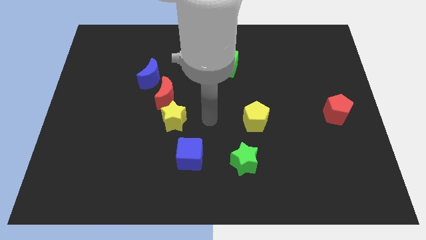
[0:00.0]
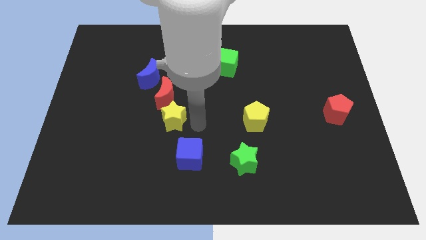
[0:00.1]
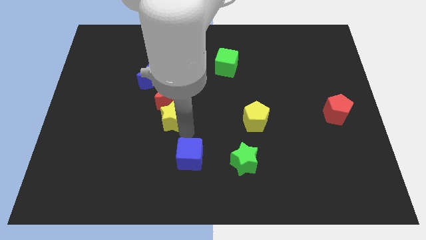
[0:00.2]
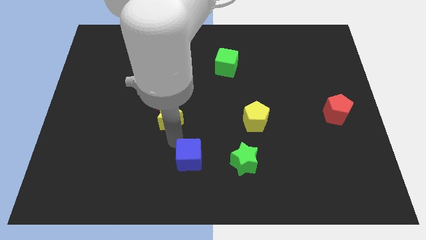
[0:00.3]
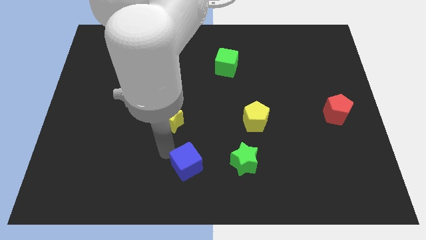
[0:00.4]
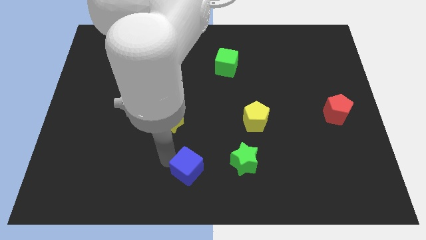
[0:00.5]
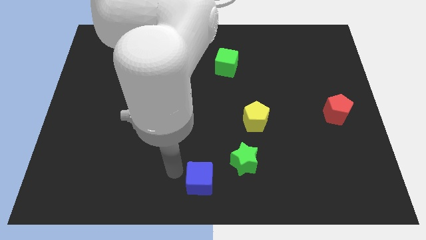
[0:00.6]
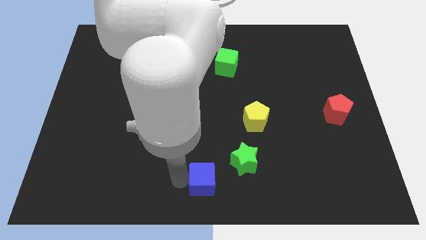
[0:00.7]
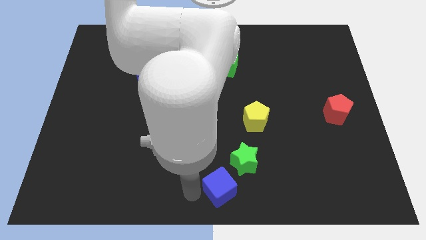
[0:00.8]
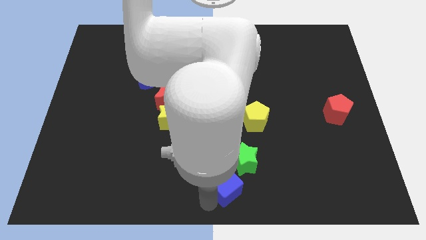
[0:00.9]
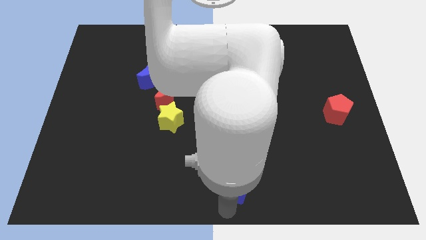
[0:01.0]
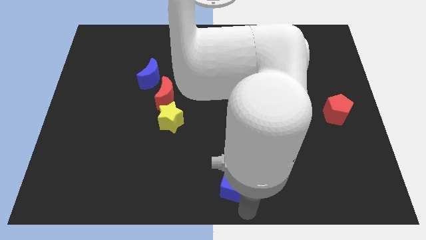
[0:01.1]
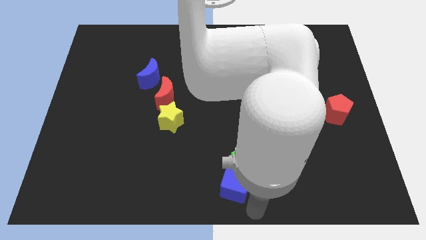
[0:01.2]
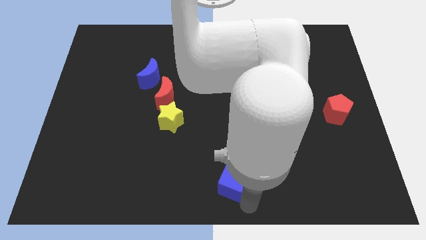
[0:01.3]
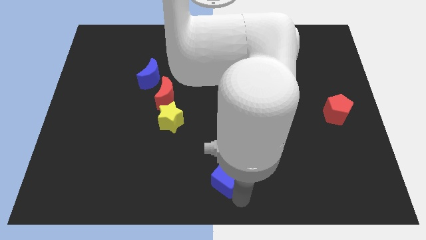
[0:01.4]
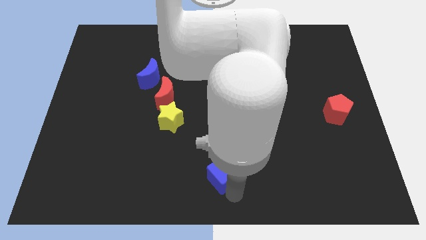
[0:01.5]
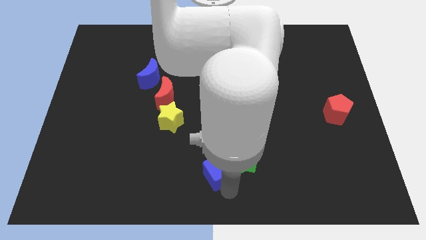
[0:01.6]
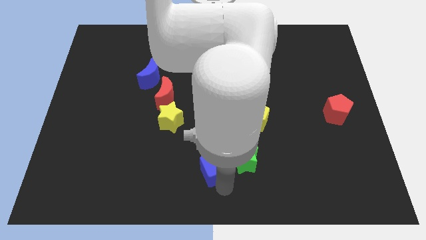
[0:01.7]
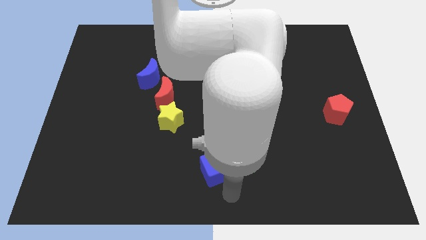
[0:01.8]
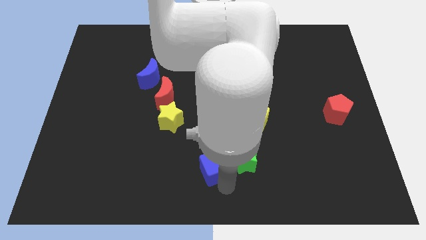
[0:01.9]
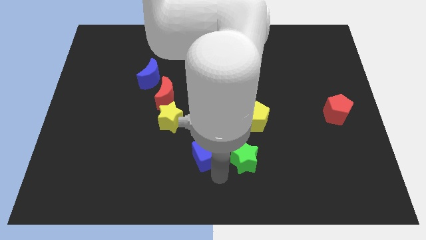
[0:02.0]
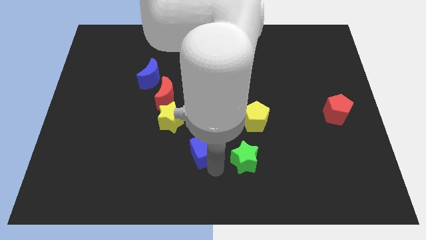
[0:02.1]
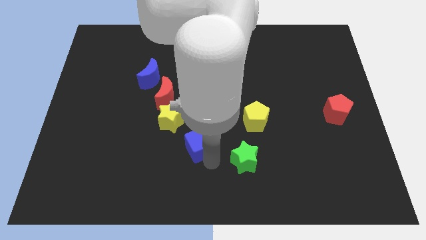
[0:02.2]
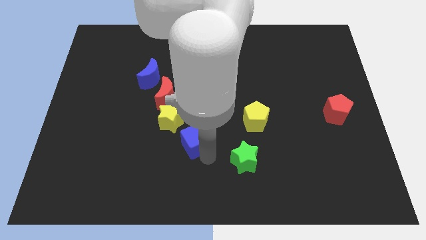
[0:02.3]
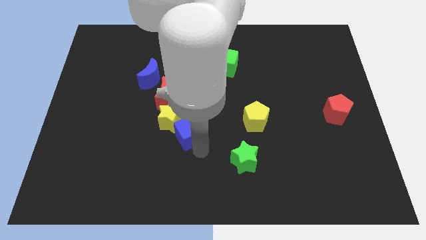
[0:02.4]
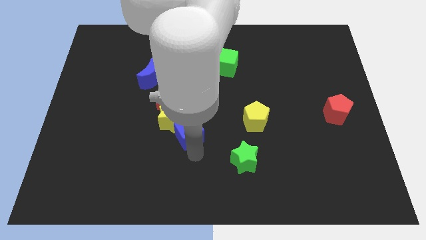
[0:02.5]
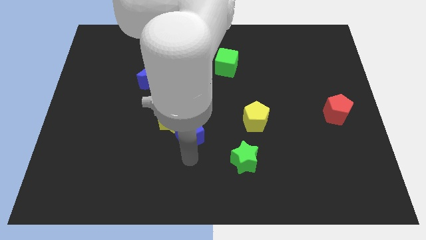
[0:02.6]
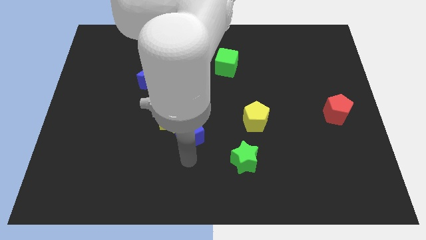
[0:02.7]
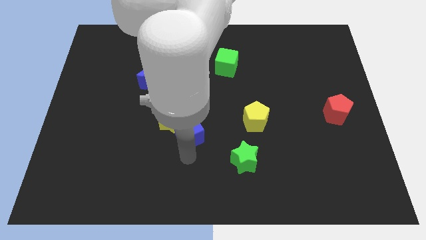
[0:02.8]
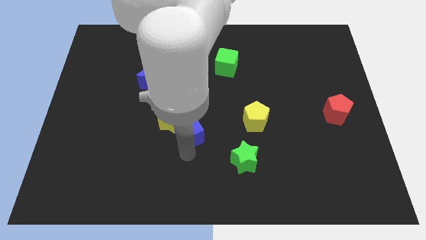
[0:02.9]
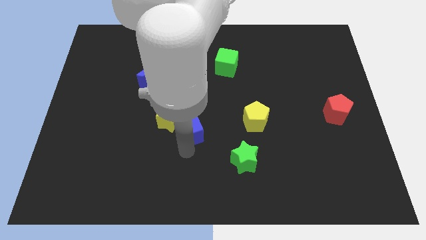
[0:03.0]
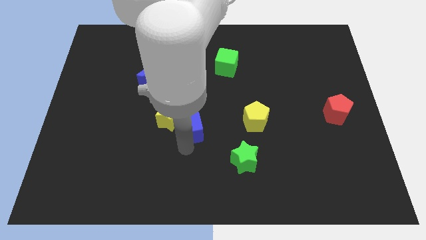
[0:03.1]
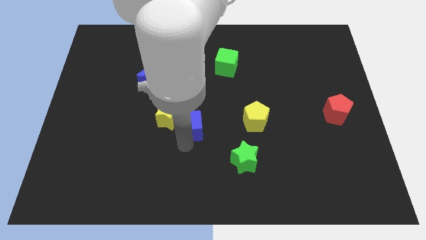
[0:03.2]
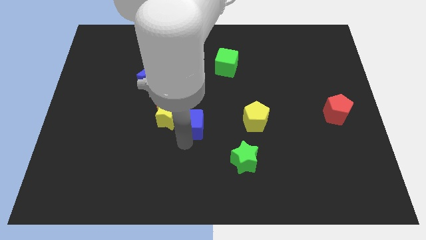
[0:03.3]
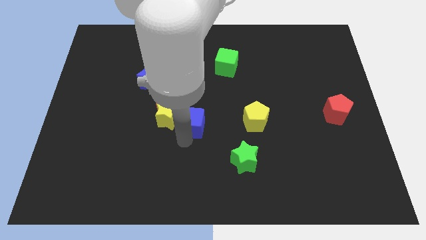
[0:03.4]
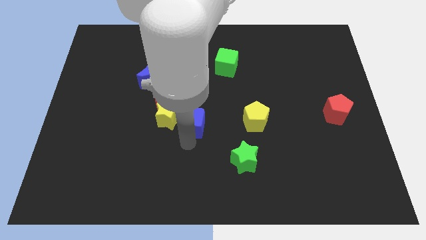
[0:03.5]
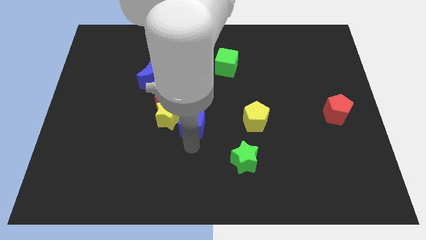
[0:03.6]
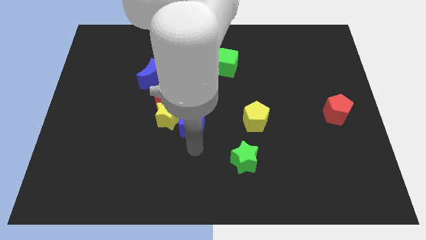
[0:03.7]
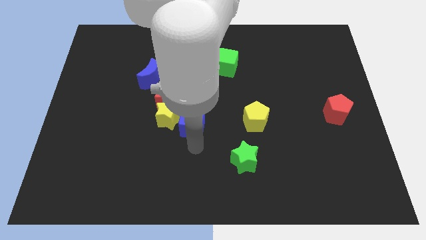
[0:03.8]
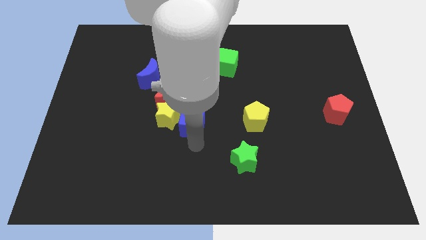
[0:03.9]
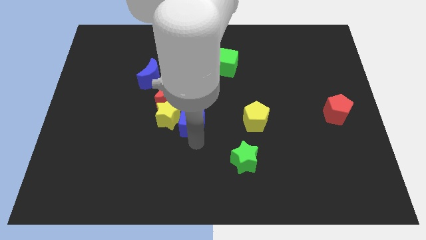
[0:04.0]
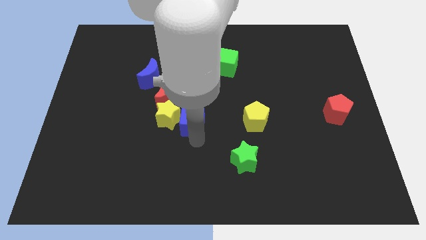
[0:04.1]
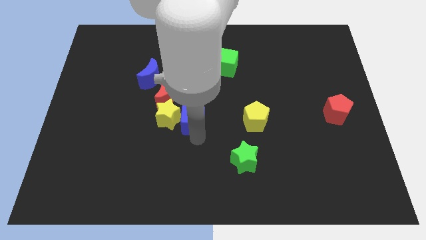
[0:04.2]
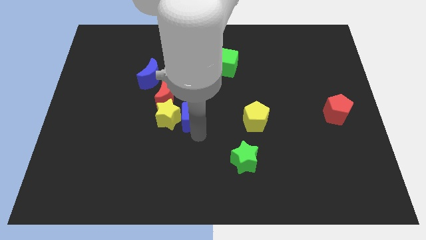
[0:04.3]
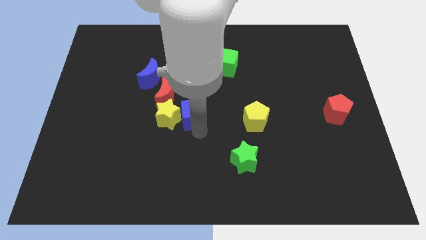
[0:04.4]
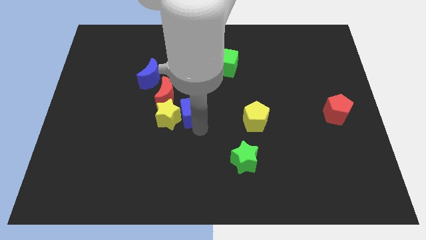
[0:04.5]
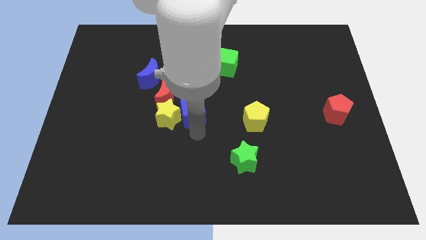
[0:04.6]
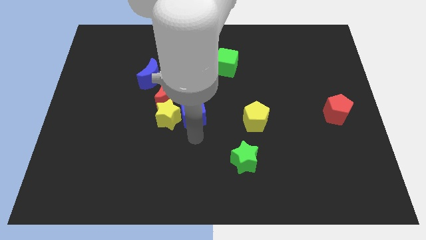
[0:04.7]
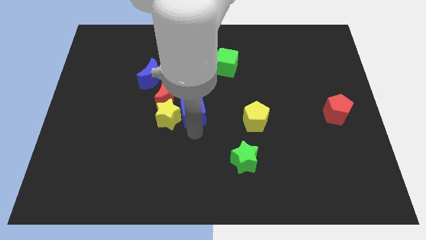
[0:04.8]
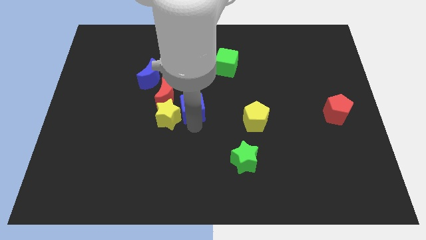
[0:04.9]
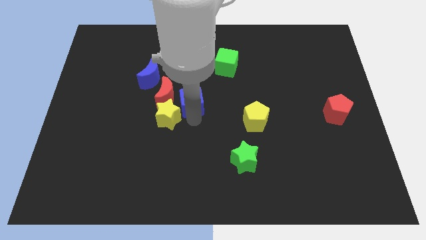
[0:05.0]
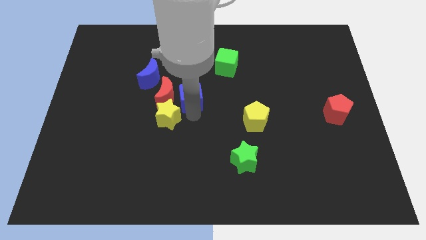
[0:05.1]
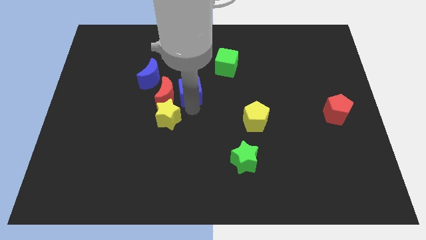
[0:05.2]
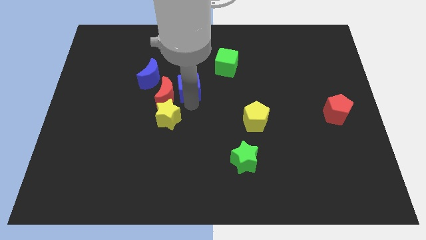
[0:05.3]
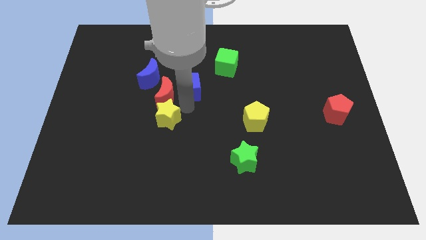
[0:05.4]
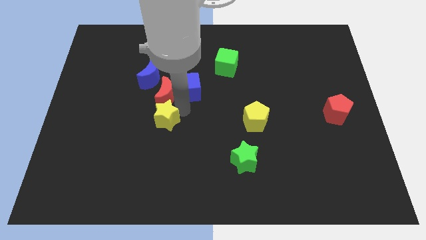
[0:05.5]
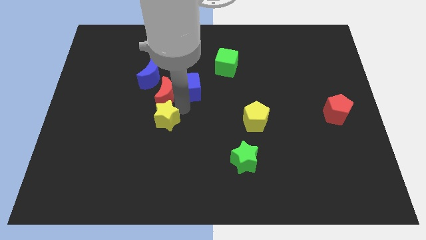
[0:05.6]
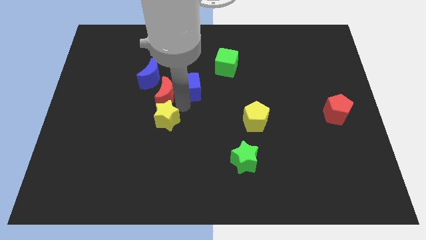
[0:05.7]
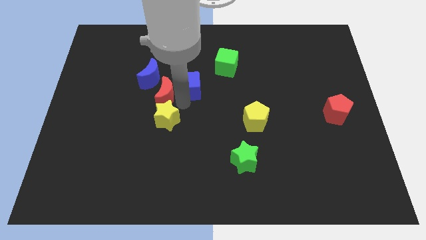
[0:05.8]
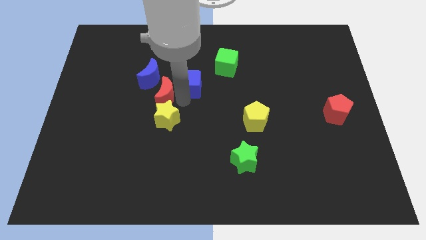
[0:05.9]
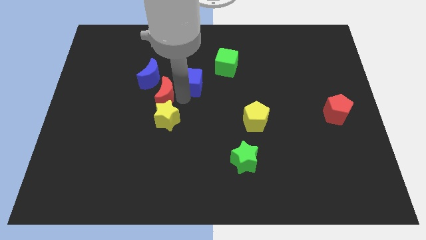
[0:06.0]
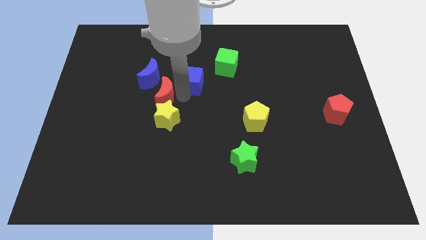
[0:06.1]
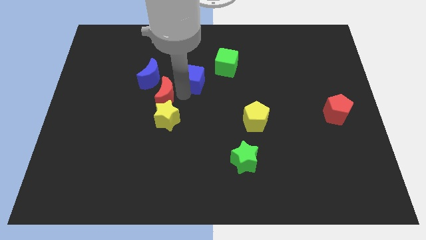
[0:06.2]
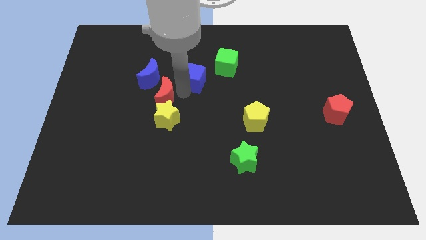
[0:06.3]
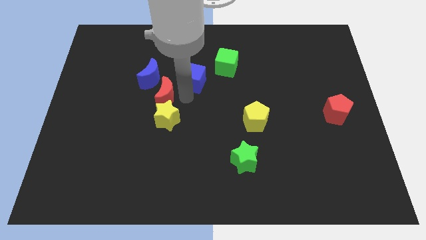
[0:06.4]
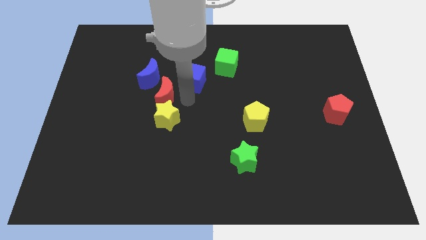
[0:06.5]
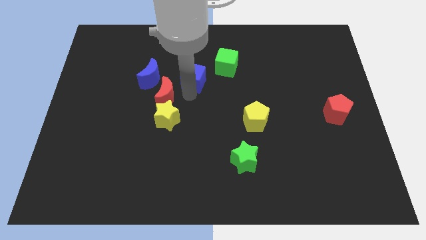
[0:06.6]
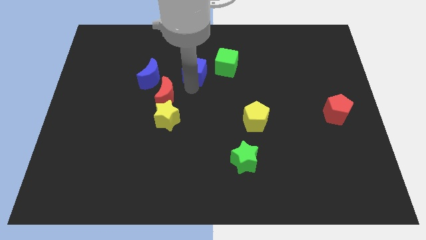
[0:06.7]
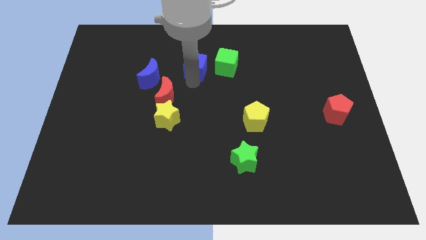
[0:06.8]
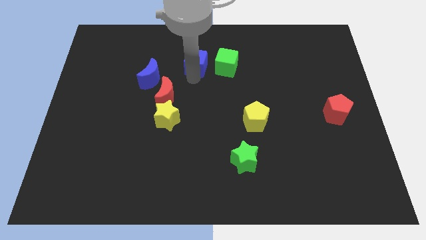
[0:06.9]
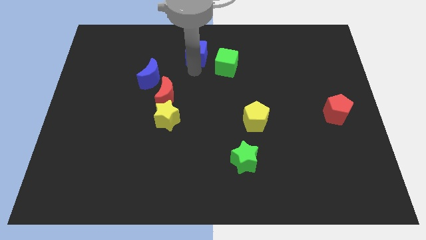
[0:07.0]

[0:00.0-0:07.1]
push the blue cube to the top
